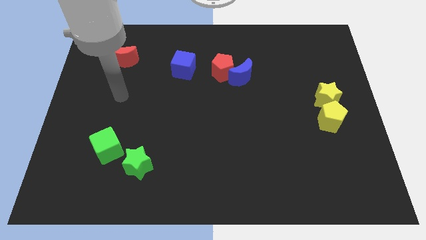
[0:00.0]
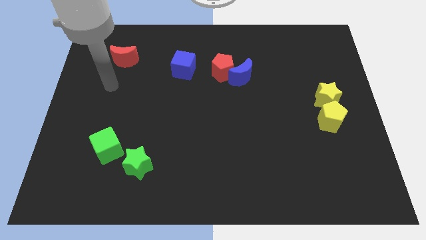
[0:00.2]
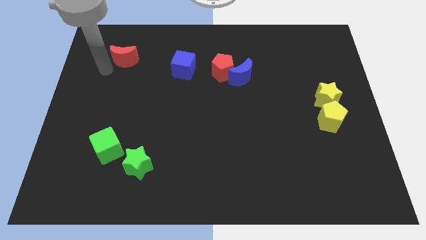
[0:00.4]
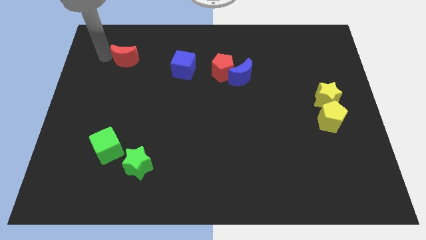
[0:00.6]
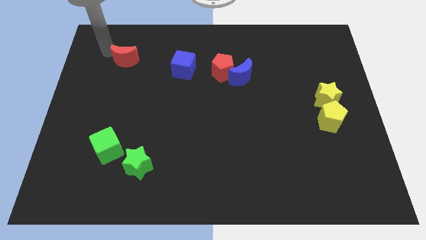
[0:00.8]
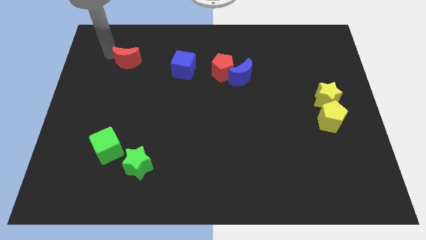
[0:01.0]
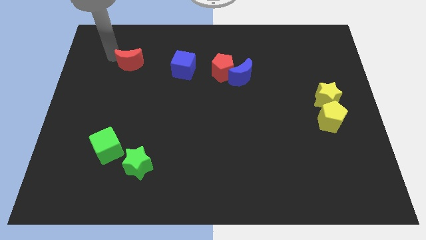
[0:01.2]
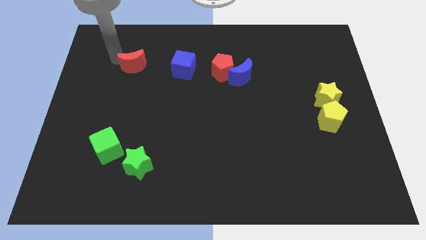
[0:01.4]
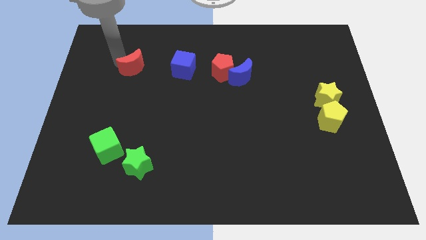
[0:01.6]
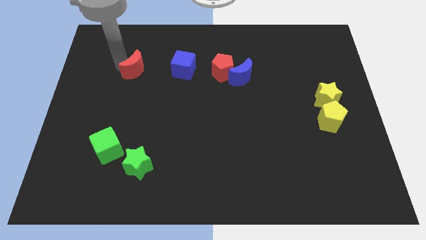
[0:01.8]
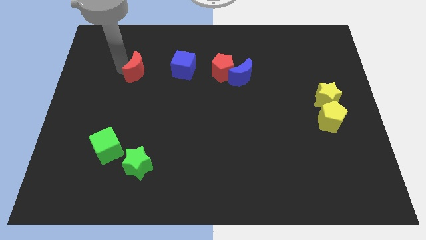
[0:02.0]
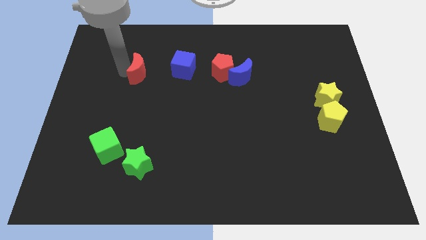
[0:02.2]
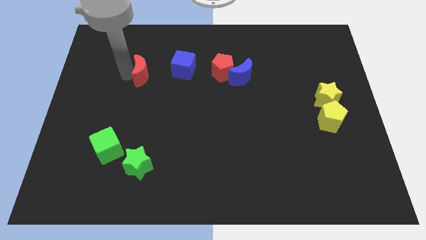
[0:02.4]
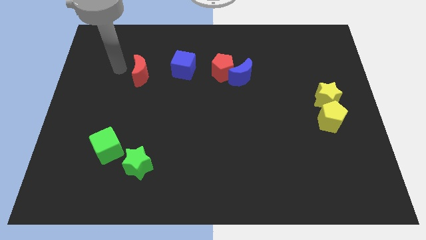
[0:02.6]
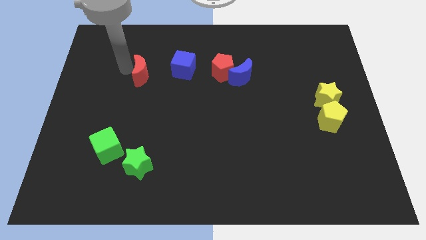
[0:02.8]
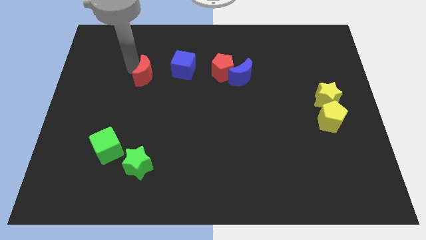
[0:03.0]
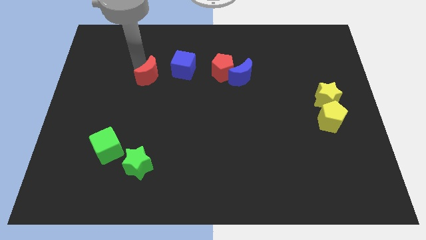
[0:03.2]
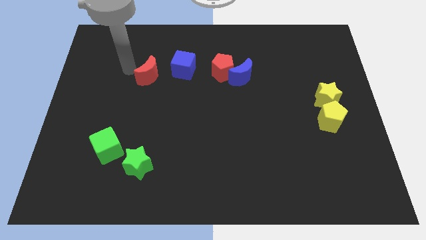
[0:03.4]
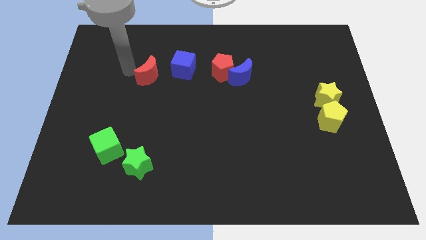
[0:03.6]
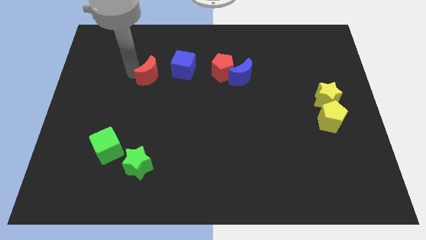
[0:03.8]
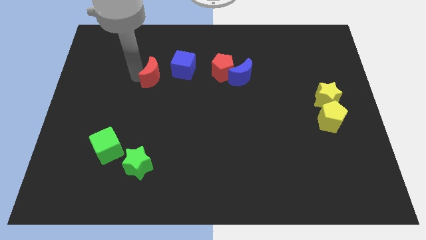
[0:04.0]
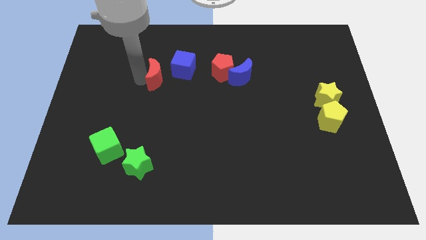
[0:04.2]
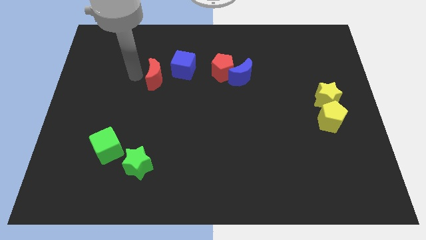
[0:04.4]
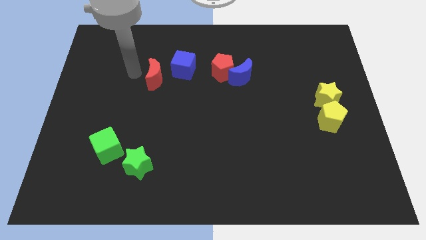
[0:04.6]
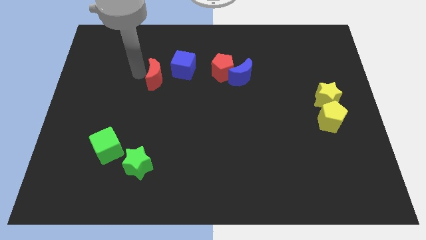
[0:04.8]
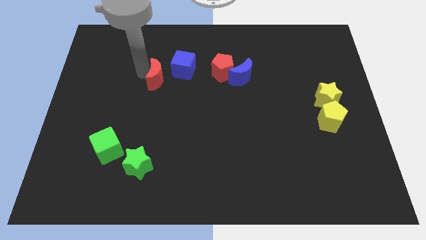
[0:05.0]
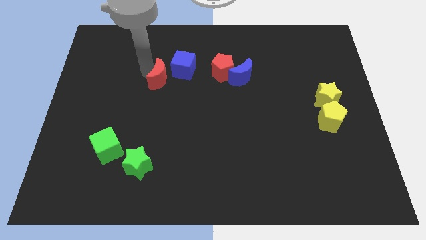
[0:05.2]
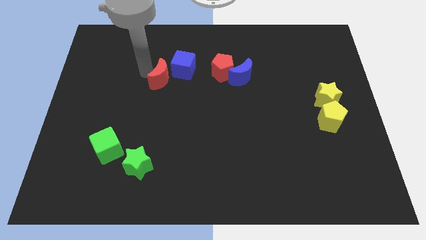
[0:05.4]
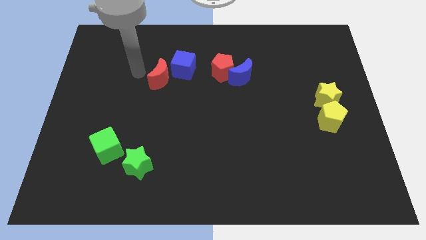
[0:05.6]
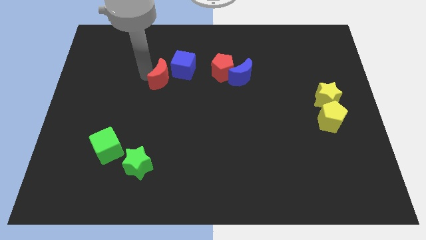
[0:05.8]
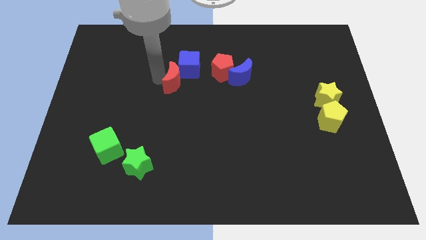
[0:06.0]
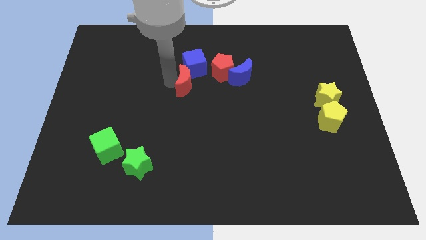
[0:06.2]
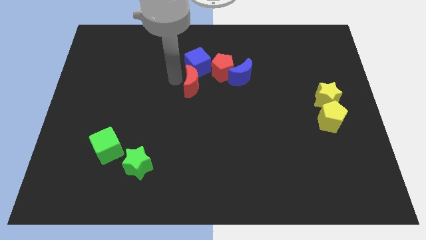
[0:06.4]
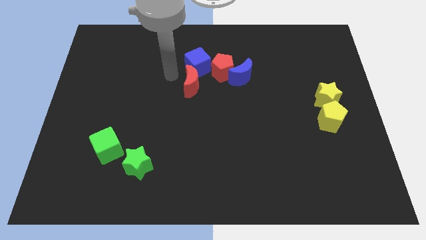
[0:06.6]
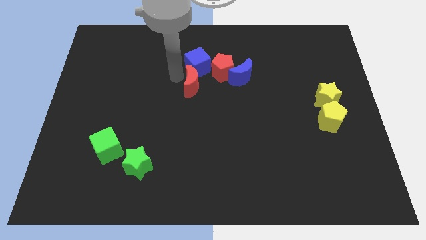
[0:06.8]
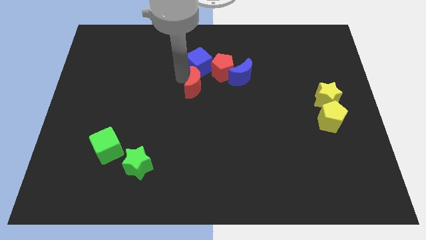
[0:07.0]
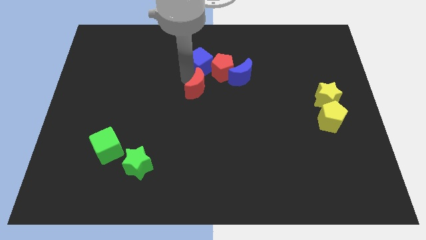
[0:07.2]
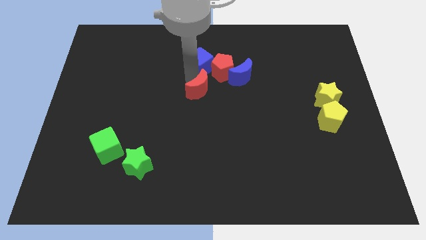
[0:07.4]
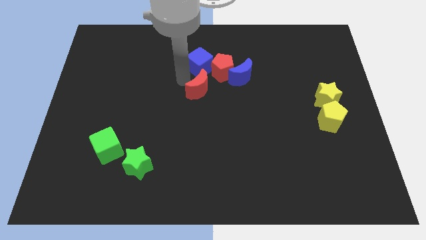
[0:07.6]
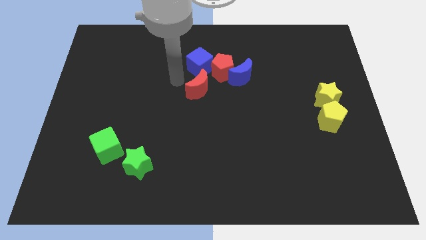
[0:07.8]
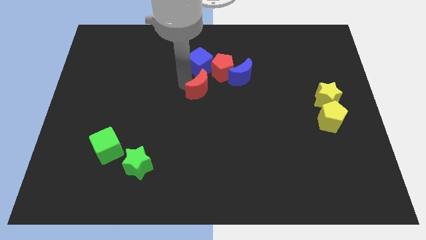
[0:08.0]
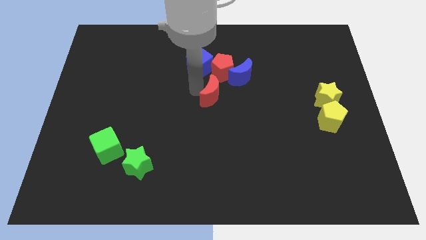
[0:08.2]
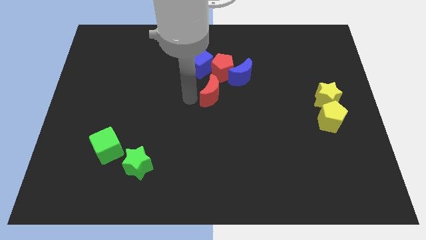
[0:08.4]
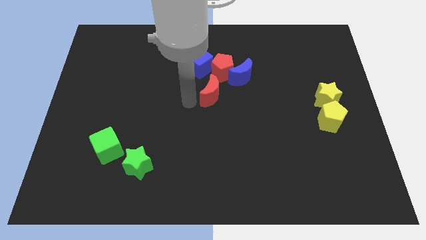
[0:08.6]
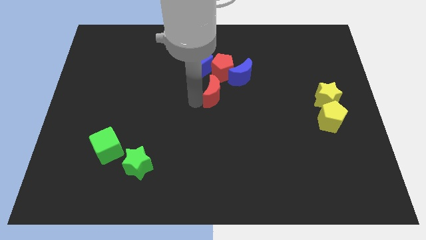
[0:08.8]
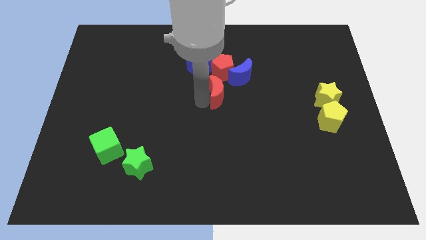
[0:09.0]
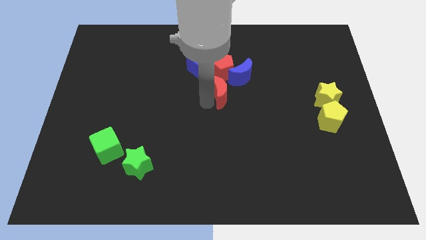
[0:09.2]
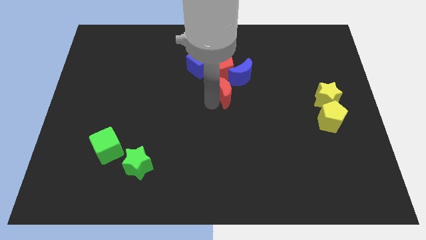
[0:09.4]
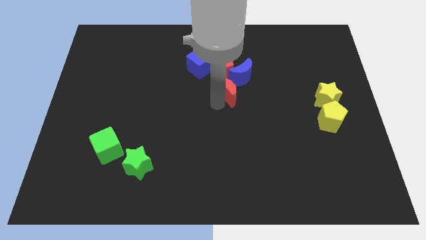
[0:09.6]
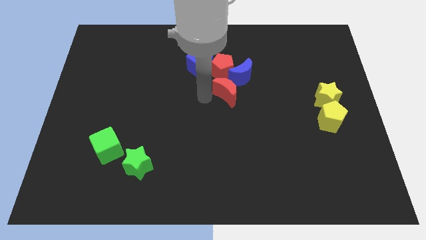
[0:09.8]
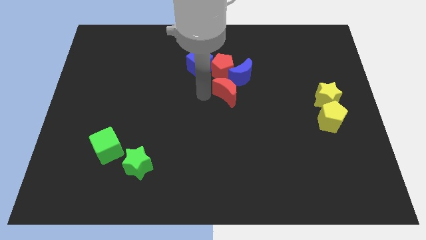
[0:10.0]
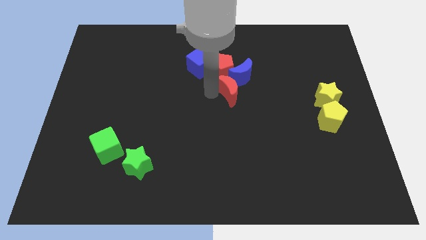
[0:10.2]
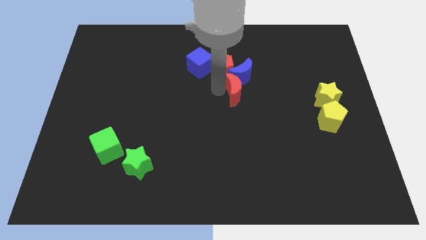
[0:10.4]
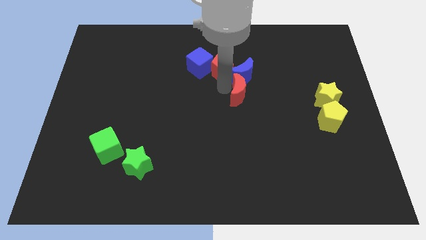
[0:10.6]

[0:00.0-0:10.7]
push the red moon diagonally down and to the right of the blue moon

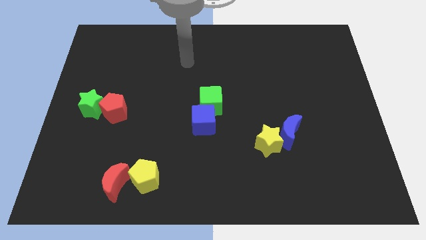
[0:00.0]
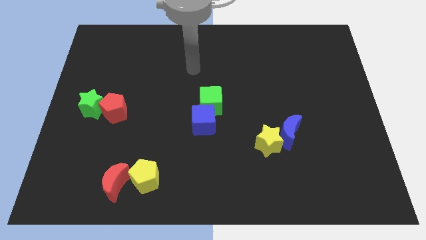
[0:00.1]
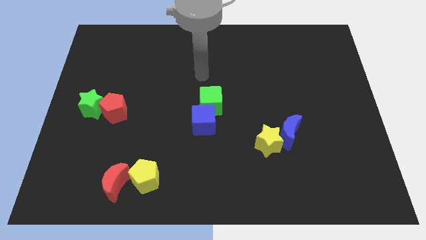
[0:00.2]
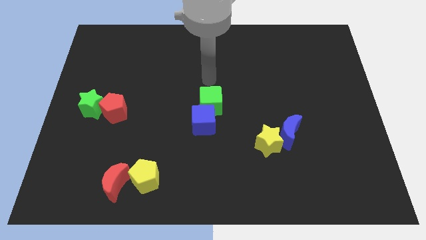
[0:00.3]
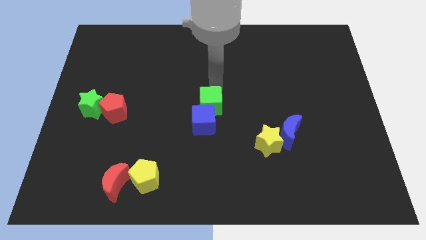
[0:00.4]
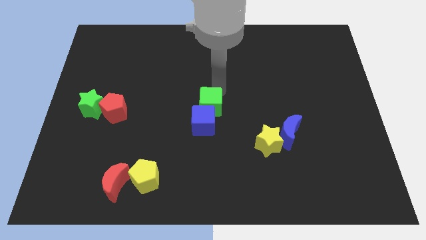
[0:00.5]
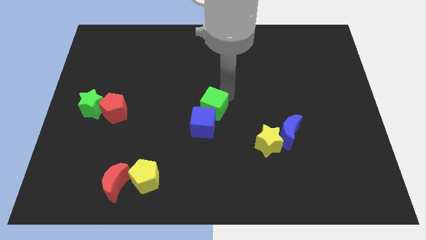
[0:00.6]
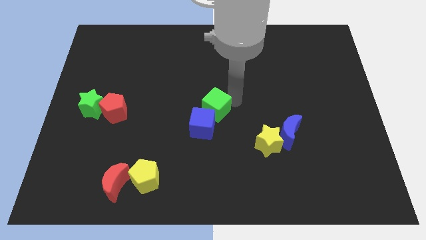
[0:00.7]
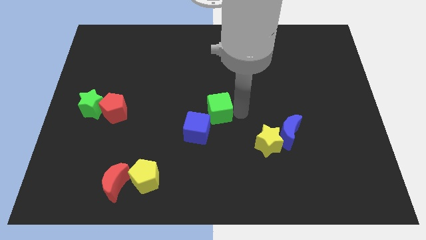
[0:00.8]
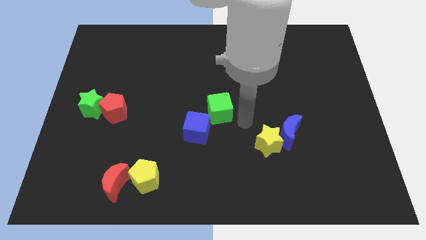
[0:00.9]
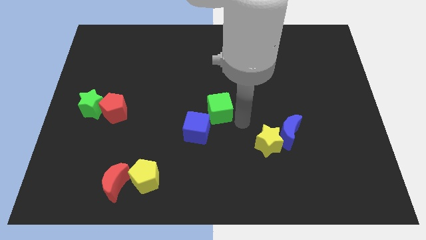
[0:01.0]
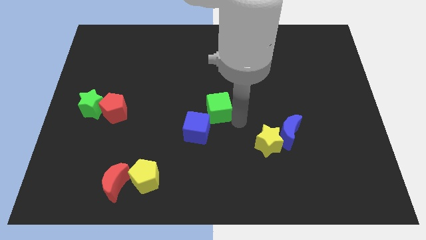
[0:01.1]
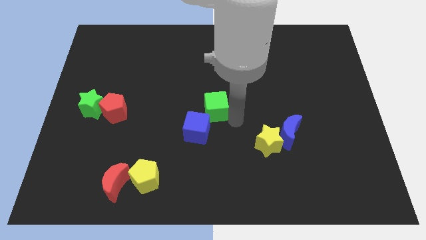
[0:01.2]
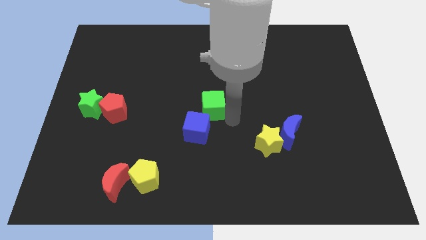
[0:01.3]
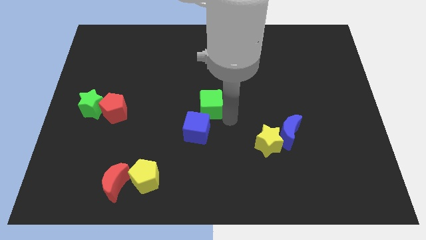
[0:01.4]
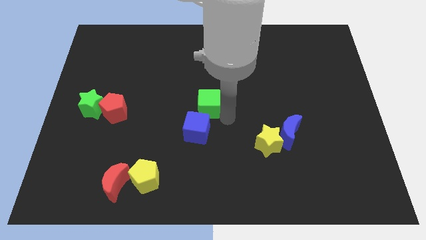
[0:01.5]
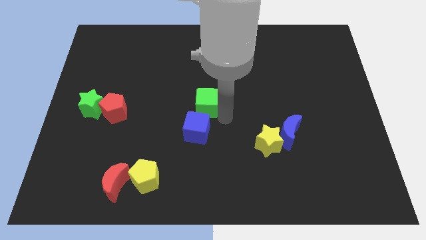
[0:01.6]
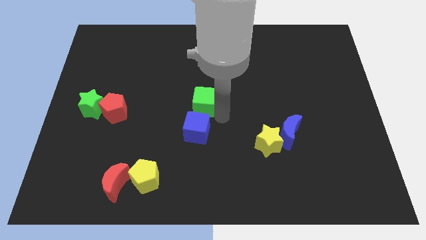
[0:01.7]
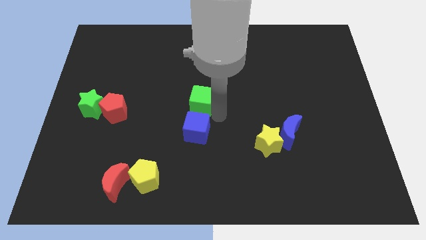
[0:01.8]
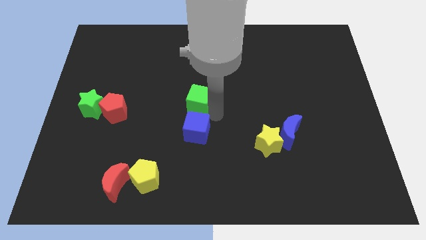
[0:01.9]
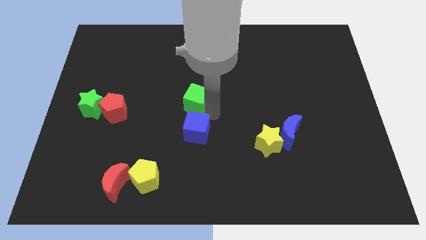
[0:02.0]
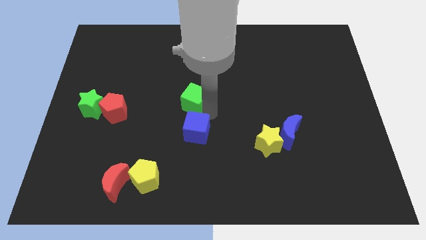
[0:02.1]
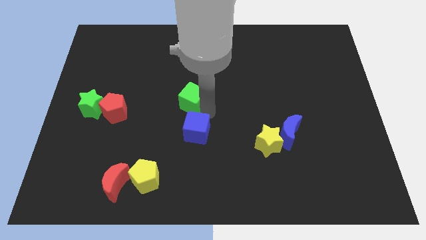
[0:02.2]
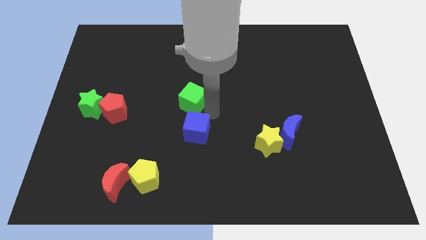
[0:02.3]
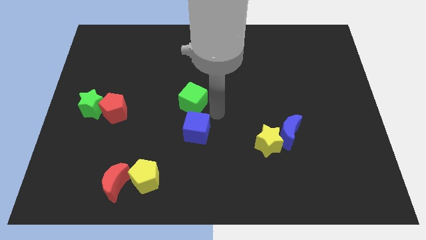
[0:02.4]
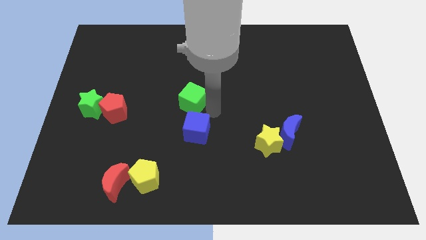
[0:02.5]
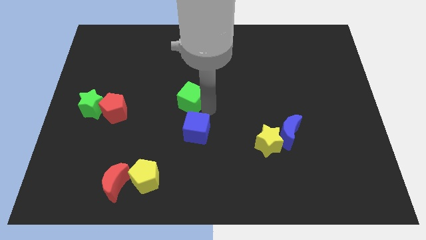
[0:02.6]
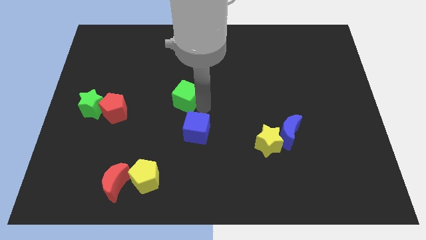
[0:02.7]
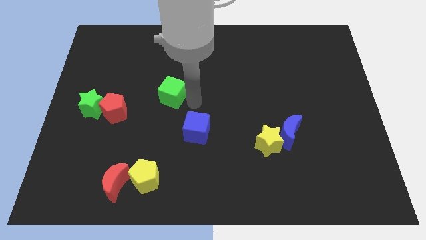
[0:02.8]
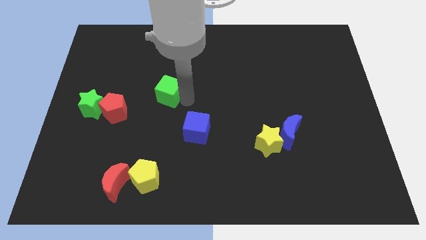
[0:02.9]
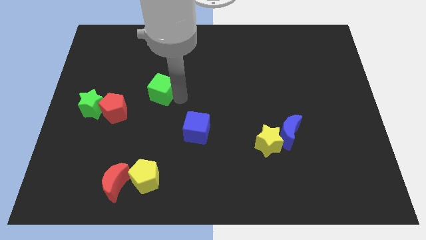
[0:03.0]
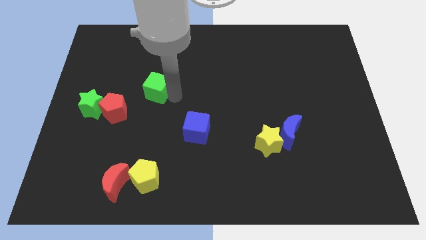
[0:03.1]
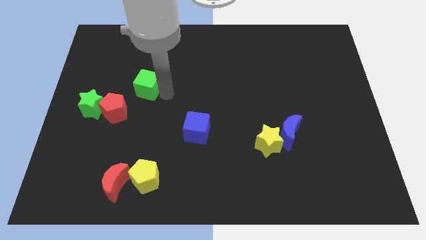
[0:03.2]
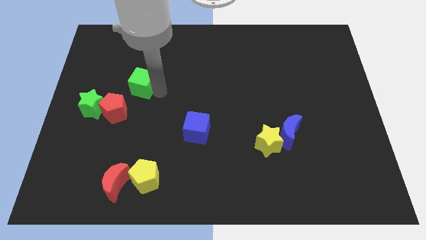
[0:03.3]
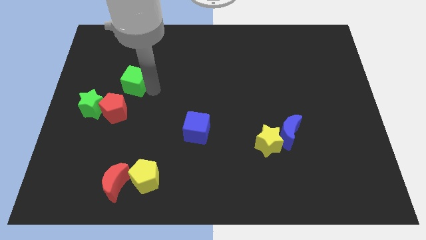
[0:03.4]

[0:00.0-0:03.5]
push the green cube to the top side of the red pentagon
